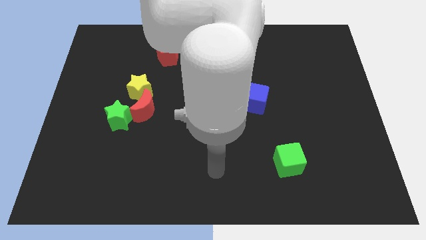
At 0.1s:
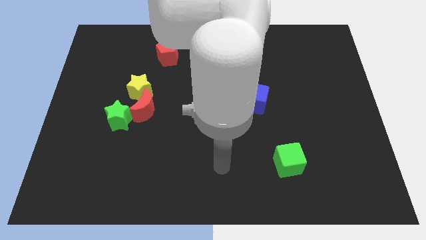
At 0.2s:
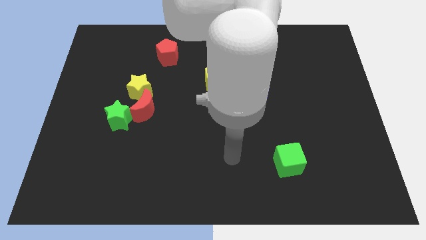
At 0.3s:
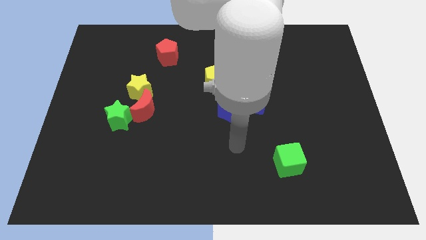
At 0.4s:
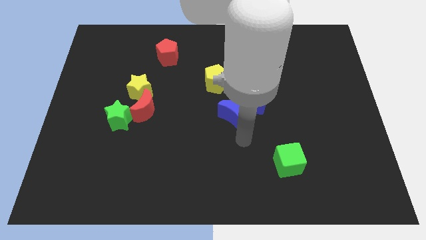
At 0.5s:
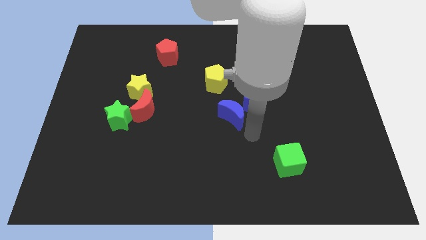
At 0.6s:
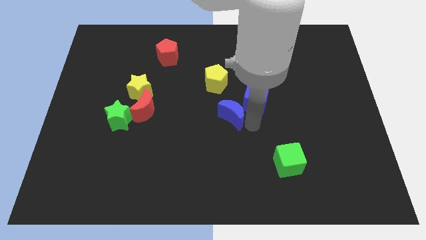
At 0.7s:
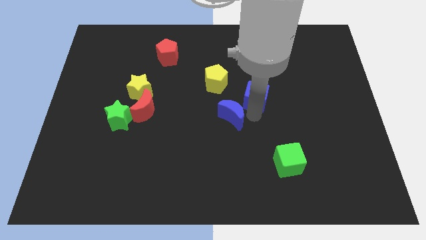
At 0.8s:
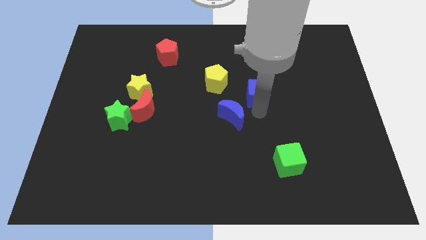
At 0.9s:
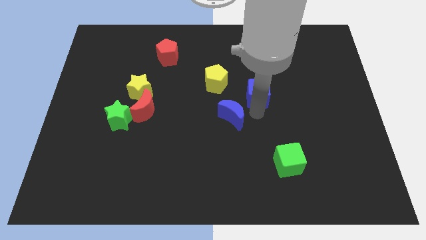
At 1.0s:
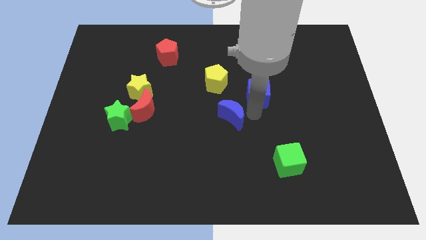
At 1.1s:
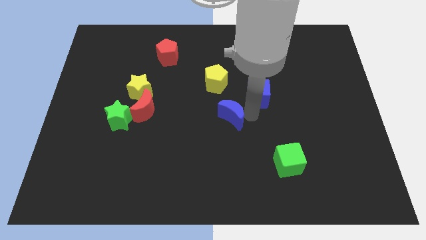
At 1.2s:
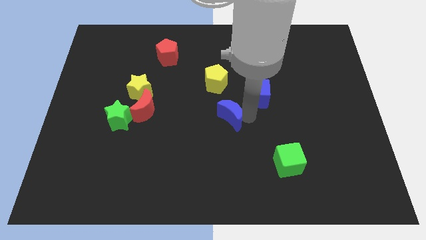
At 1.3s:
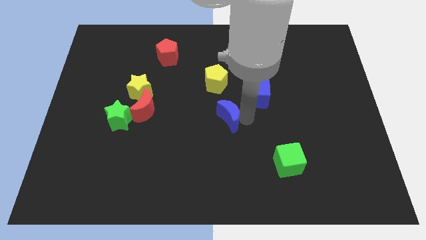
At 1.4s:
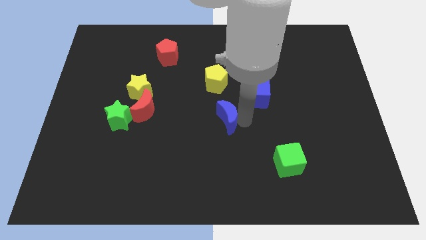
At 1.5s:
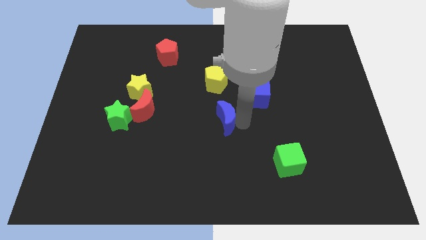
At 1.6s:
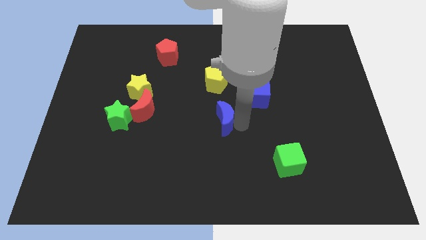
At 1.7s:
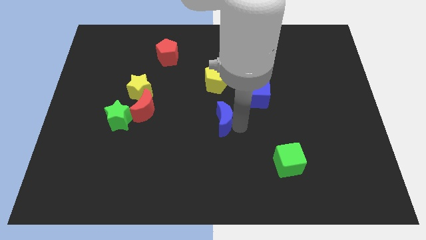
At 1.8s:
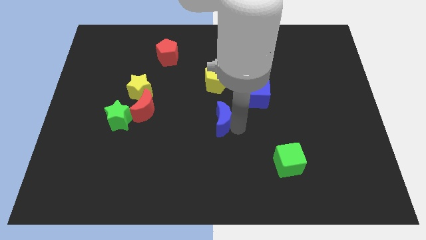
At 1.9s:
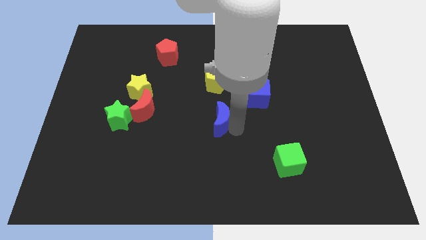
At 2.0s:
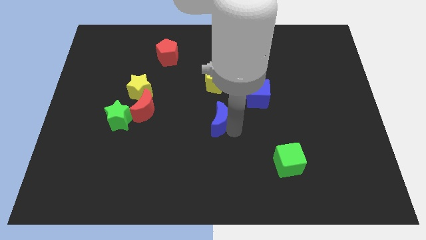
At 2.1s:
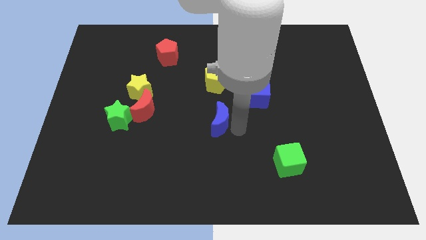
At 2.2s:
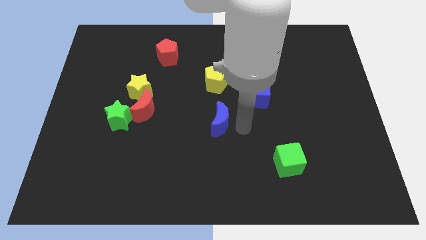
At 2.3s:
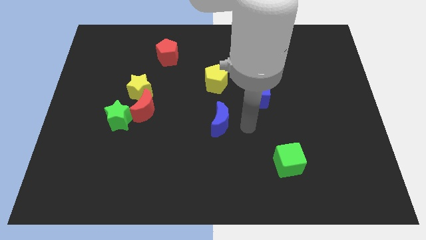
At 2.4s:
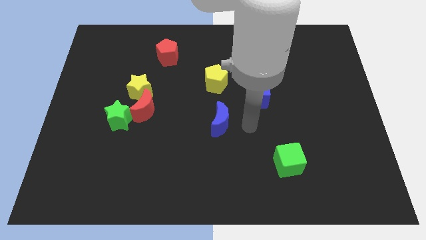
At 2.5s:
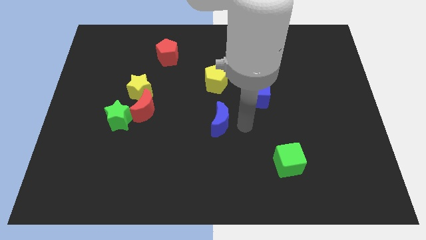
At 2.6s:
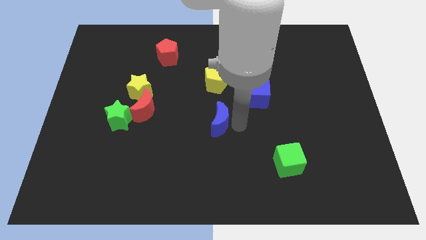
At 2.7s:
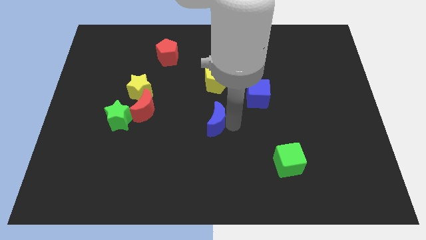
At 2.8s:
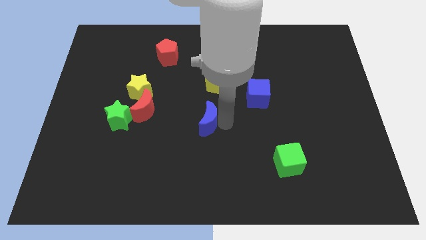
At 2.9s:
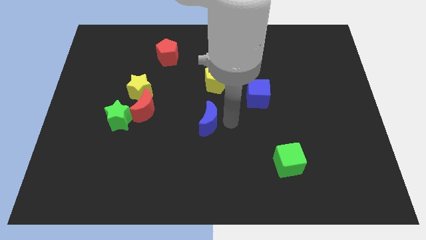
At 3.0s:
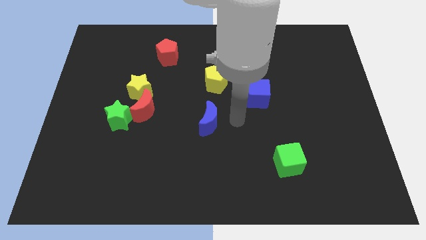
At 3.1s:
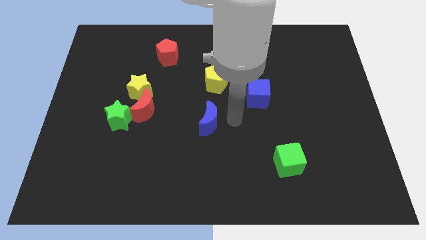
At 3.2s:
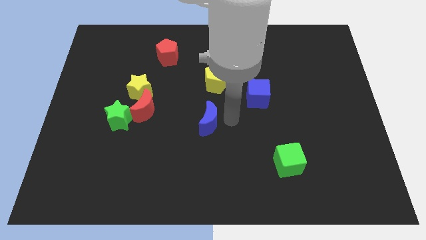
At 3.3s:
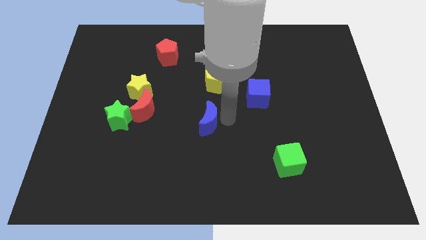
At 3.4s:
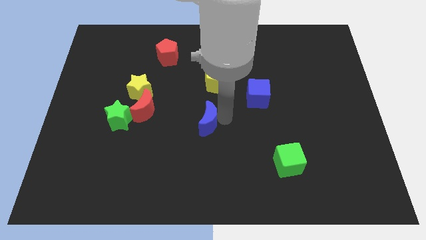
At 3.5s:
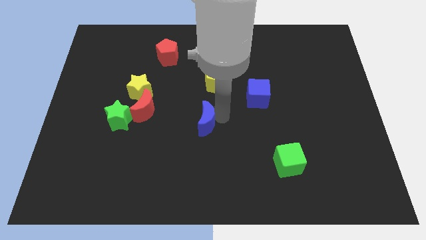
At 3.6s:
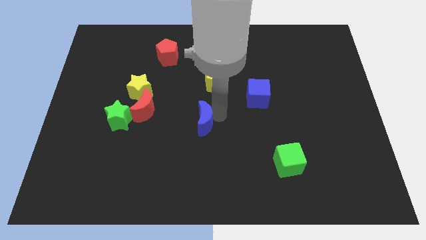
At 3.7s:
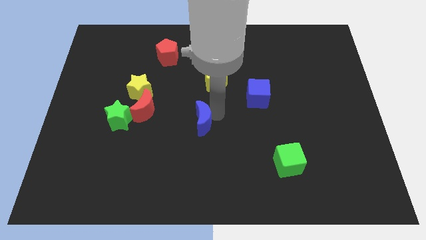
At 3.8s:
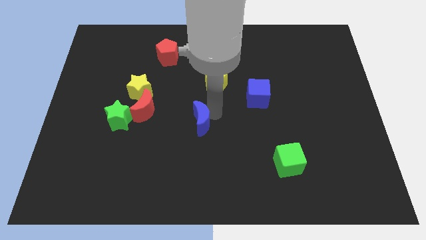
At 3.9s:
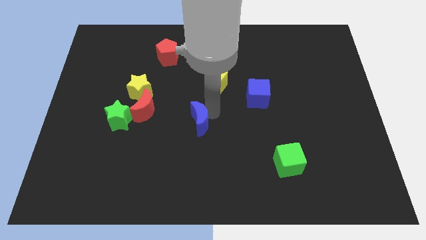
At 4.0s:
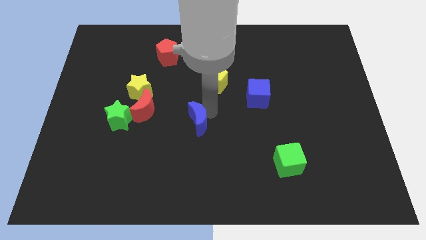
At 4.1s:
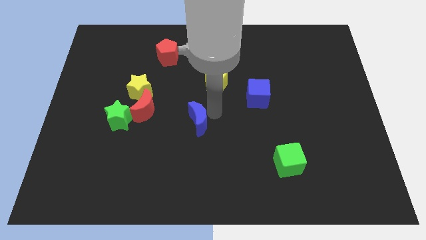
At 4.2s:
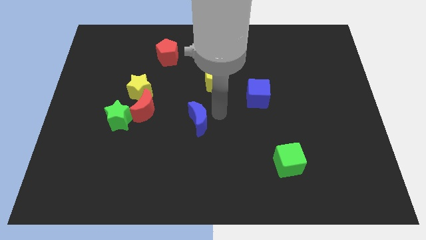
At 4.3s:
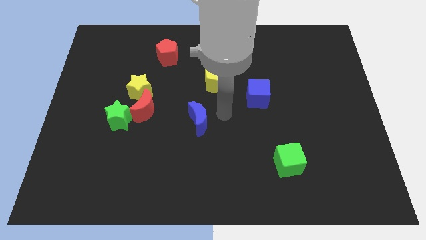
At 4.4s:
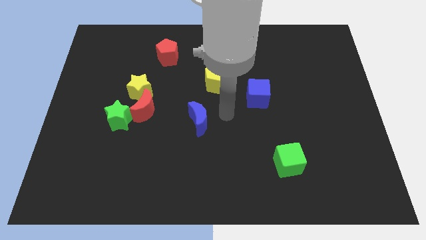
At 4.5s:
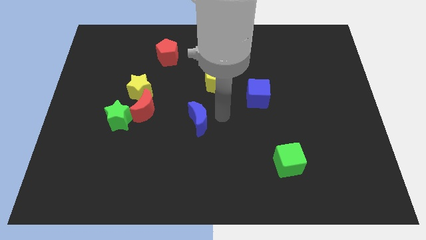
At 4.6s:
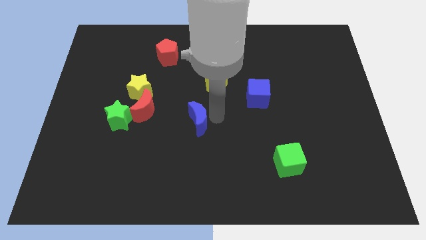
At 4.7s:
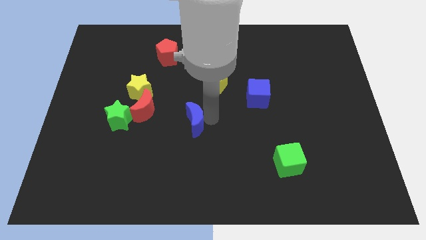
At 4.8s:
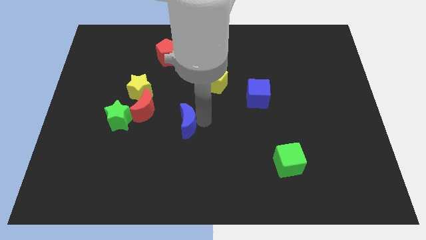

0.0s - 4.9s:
put the blue moon to the bottom right side of the red moon

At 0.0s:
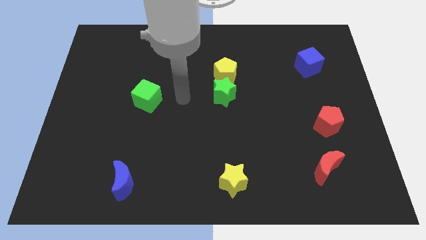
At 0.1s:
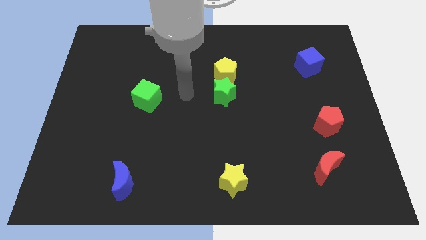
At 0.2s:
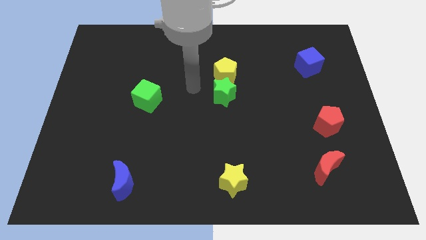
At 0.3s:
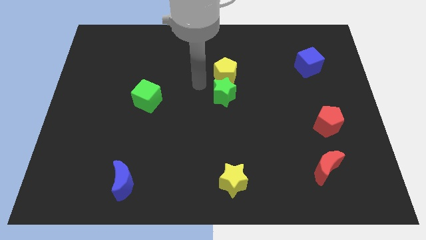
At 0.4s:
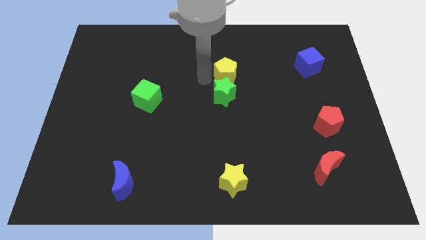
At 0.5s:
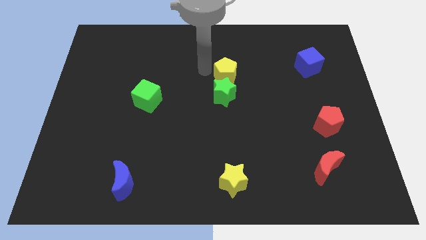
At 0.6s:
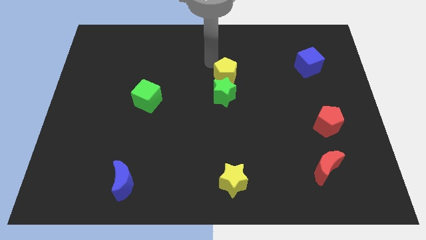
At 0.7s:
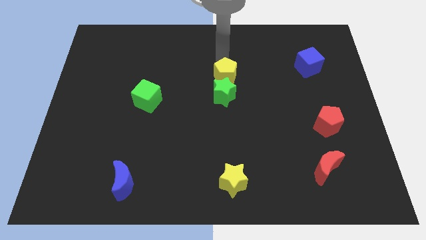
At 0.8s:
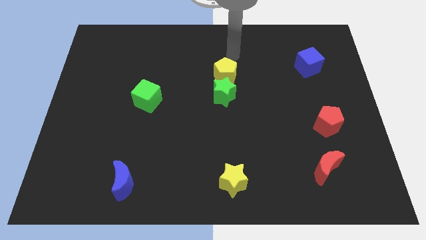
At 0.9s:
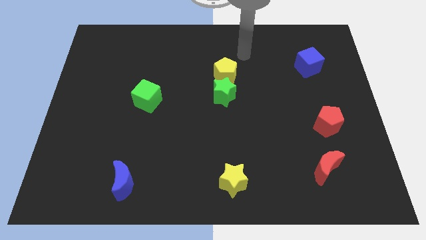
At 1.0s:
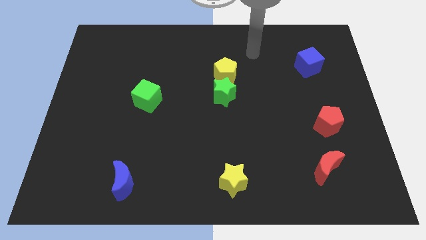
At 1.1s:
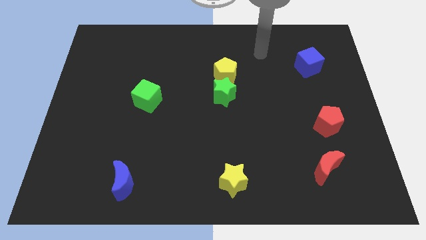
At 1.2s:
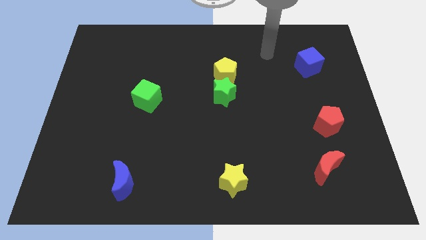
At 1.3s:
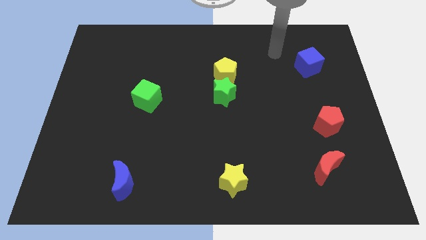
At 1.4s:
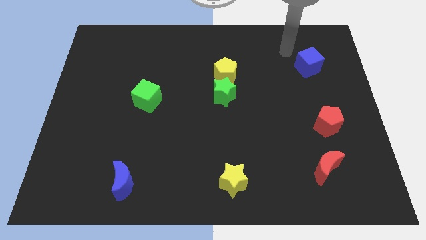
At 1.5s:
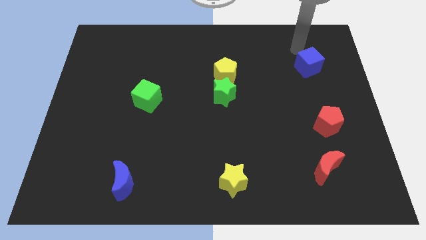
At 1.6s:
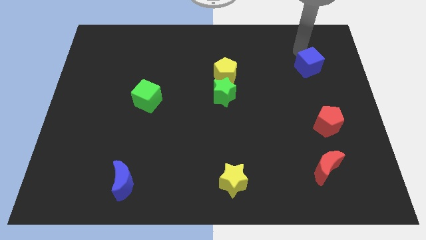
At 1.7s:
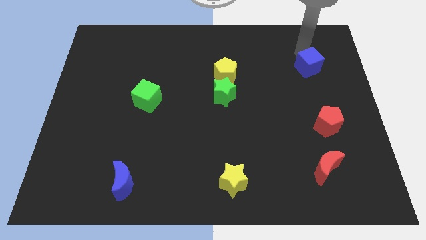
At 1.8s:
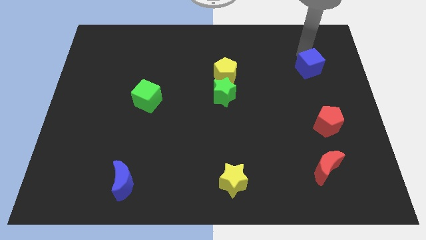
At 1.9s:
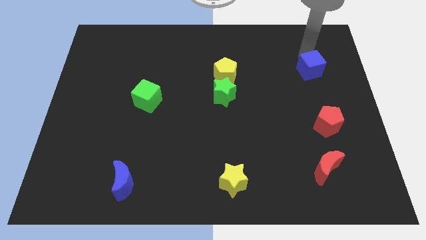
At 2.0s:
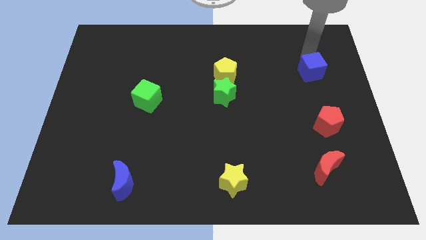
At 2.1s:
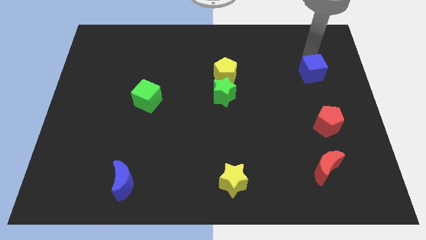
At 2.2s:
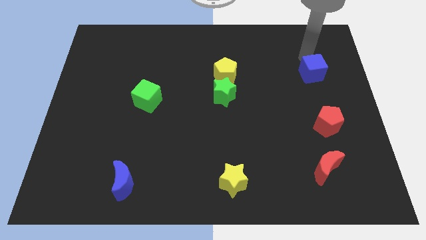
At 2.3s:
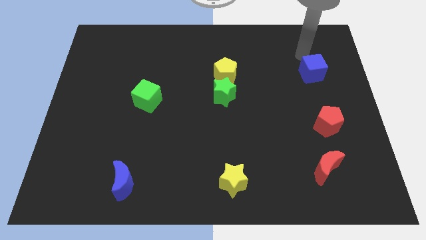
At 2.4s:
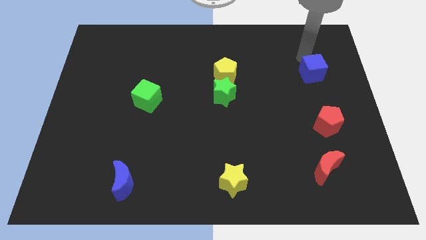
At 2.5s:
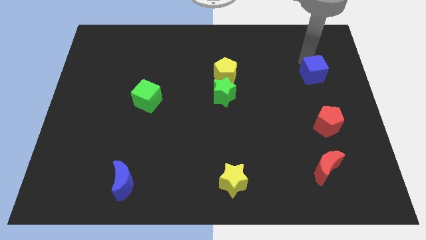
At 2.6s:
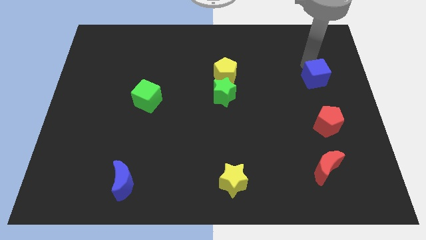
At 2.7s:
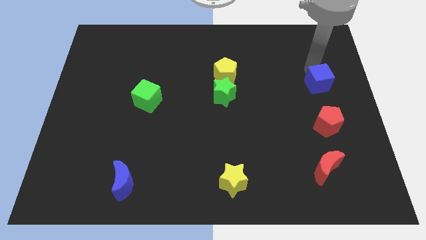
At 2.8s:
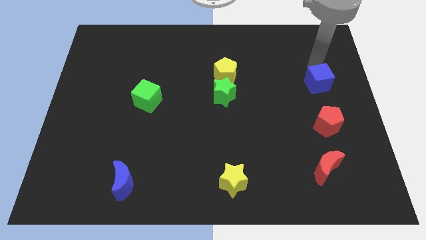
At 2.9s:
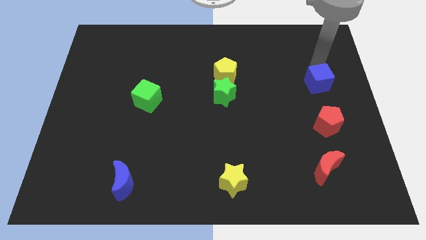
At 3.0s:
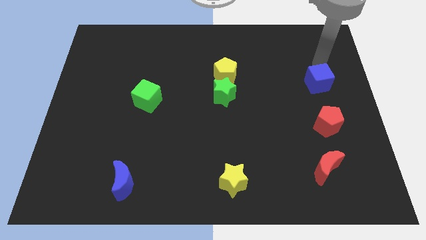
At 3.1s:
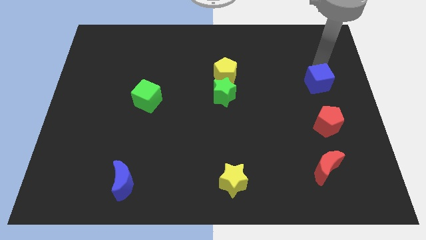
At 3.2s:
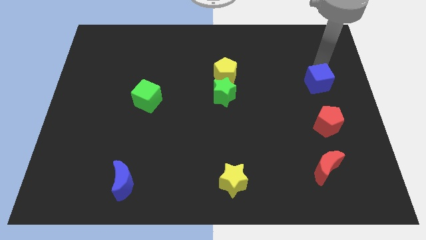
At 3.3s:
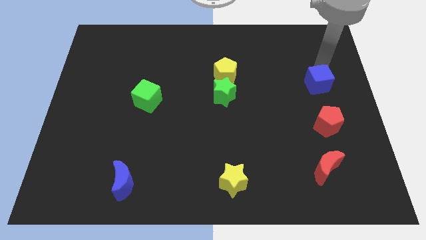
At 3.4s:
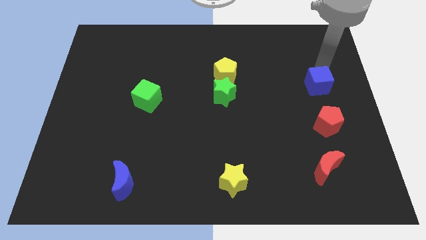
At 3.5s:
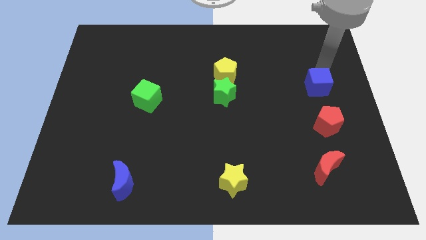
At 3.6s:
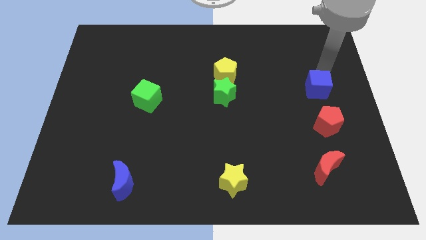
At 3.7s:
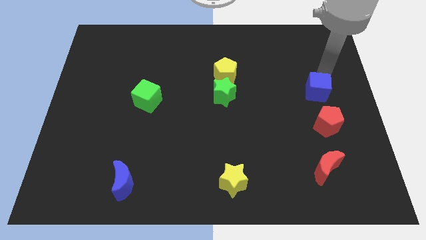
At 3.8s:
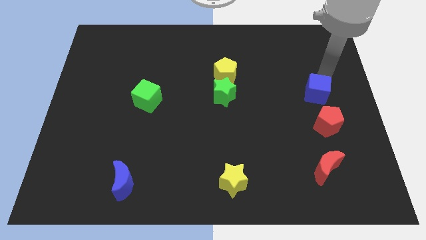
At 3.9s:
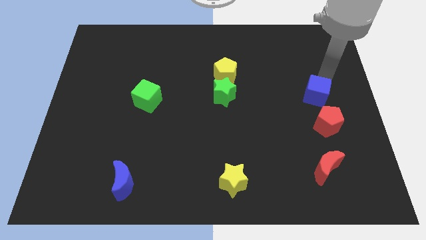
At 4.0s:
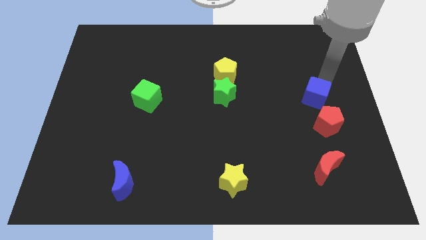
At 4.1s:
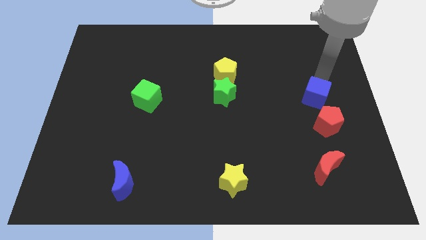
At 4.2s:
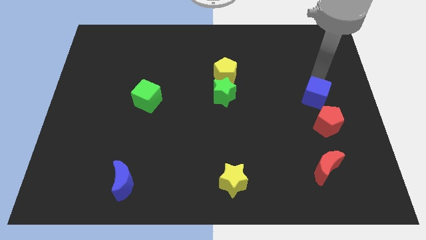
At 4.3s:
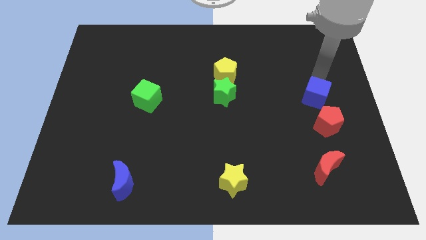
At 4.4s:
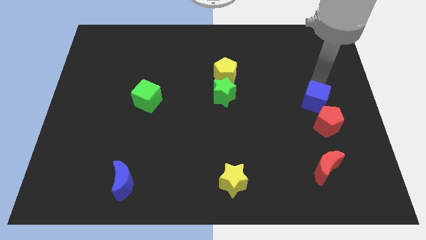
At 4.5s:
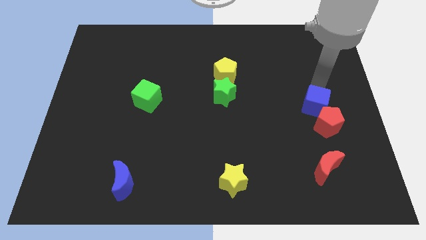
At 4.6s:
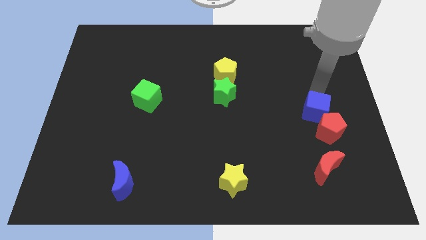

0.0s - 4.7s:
push the blue cube to the top of the red moon
